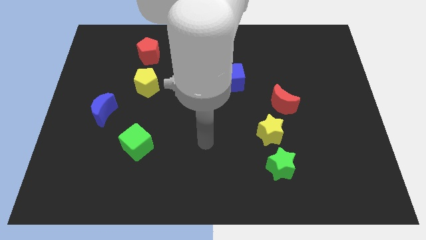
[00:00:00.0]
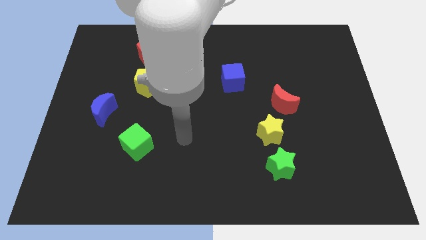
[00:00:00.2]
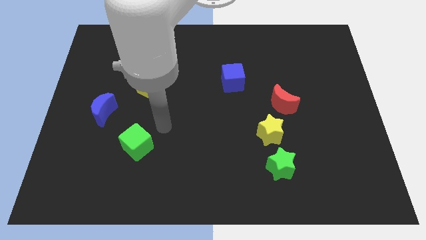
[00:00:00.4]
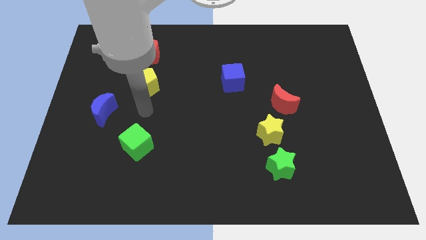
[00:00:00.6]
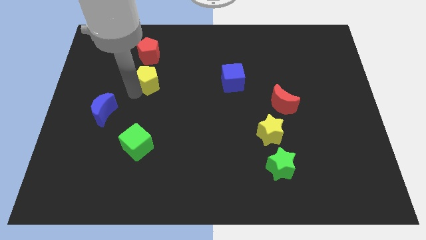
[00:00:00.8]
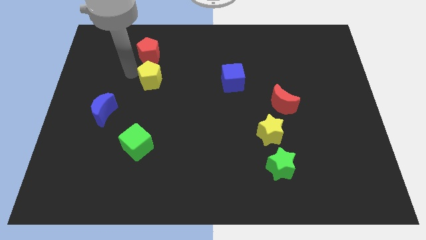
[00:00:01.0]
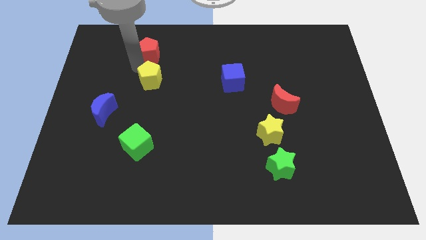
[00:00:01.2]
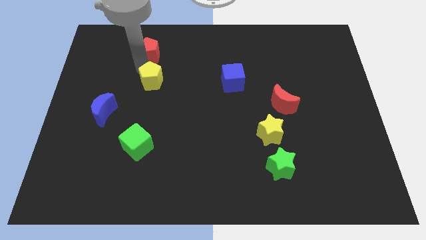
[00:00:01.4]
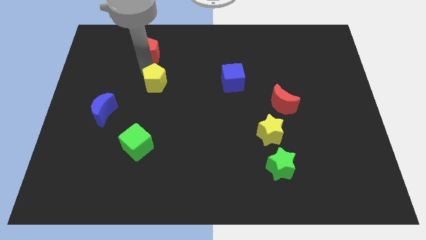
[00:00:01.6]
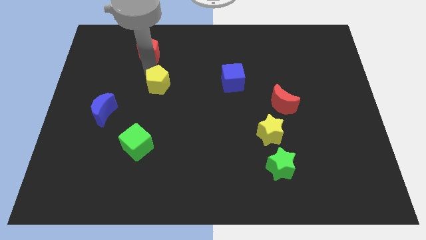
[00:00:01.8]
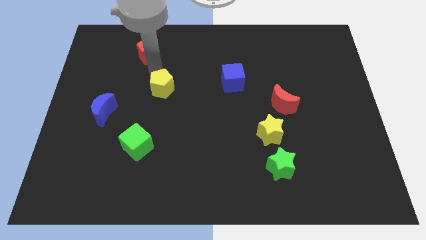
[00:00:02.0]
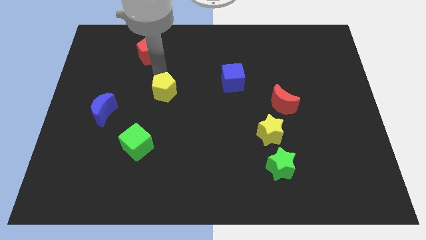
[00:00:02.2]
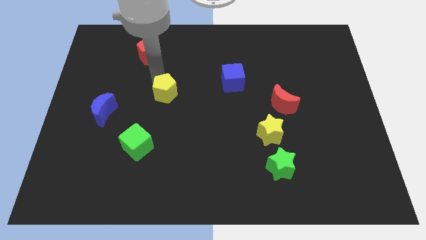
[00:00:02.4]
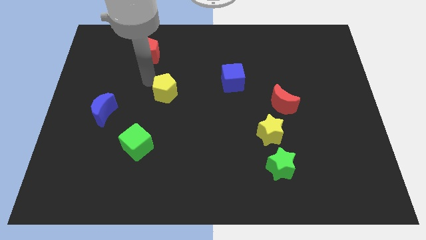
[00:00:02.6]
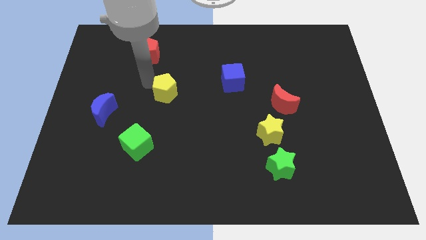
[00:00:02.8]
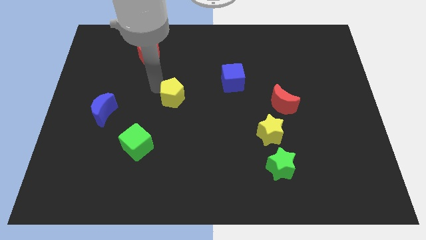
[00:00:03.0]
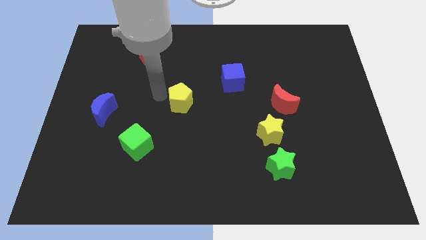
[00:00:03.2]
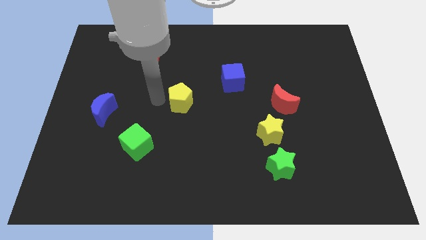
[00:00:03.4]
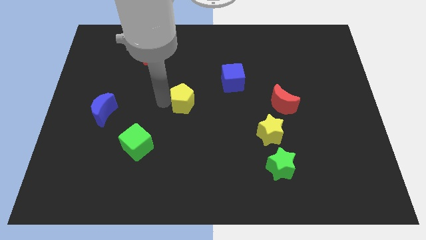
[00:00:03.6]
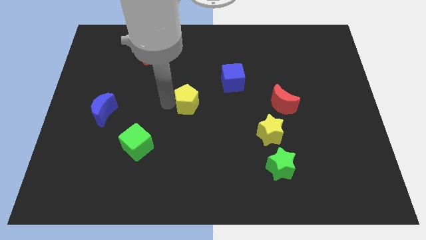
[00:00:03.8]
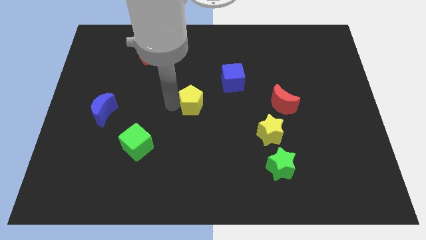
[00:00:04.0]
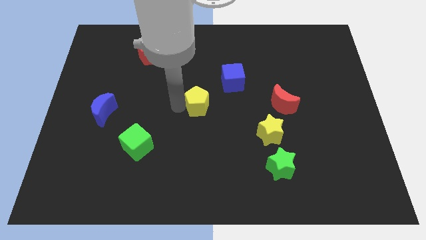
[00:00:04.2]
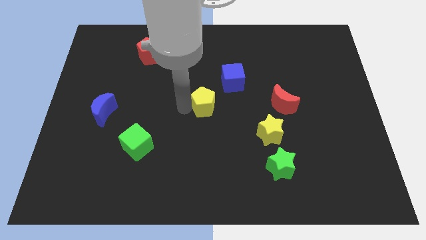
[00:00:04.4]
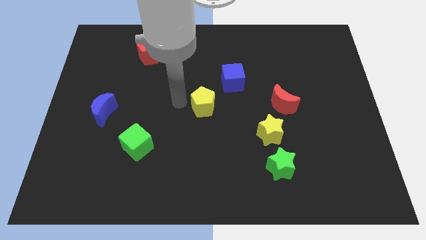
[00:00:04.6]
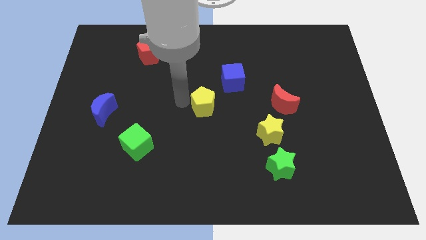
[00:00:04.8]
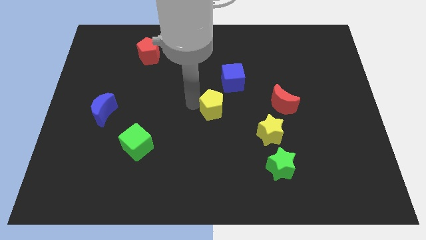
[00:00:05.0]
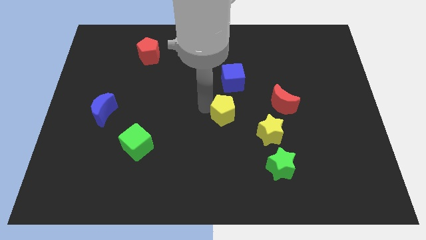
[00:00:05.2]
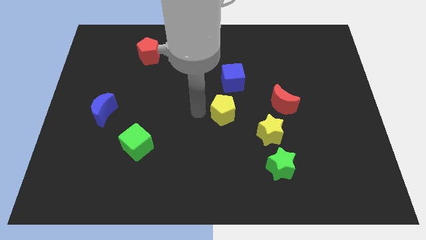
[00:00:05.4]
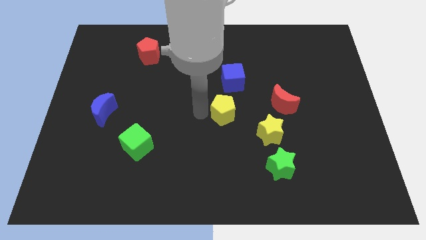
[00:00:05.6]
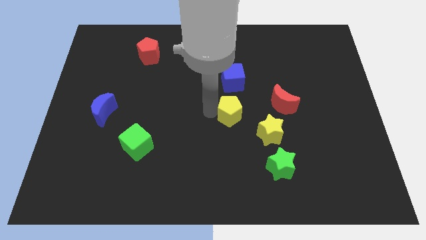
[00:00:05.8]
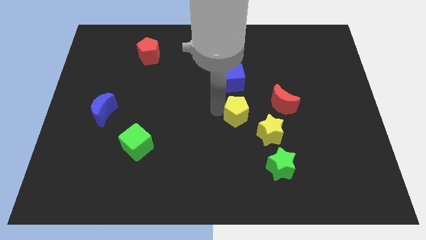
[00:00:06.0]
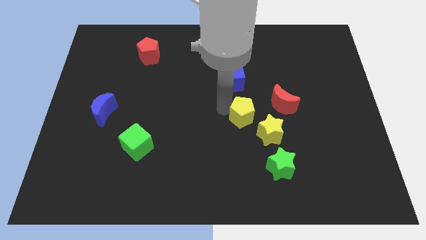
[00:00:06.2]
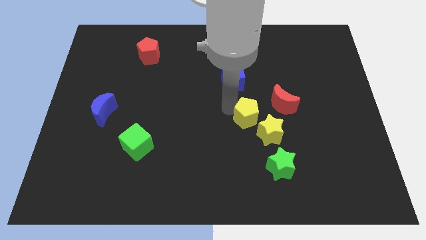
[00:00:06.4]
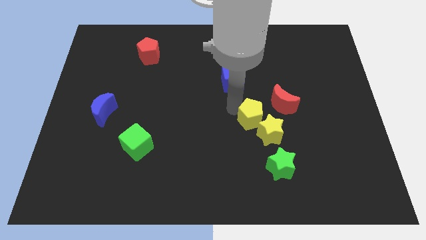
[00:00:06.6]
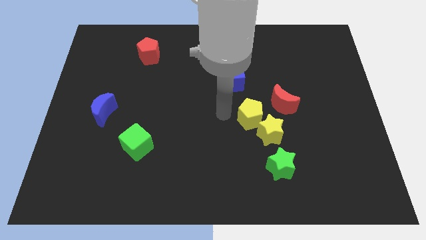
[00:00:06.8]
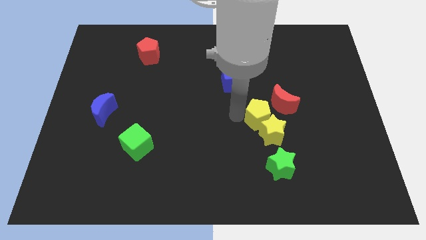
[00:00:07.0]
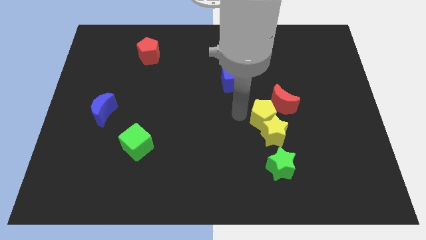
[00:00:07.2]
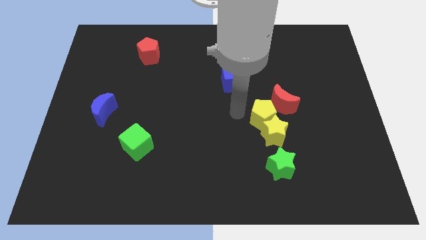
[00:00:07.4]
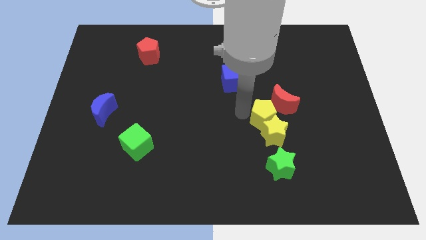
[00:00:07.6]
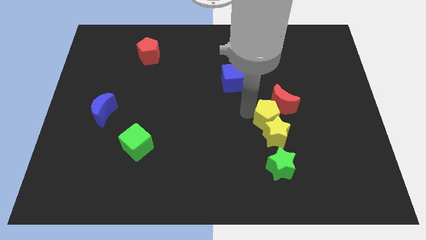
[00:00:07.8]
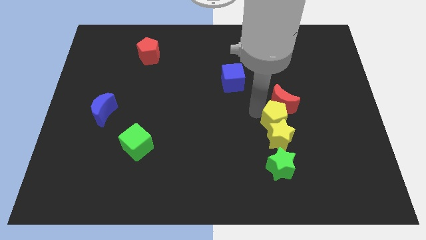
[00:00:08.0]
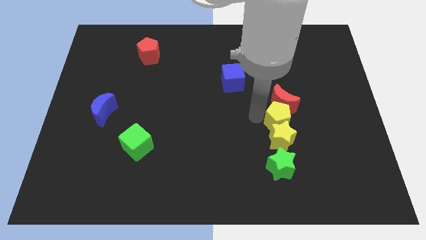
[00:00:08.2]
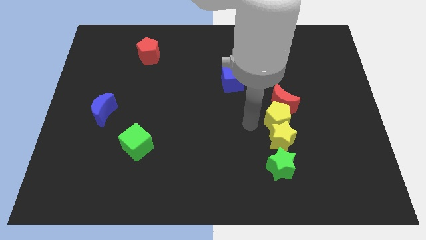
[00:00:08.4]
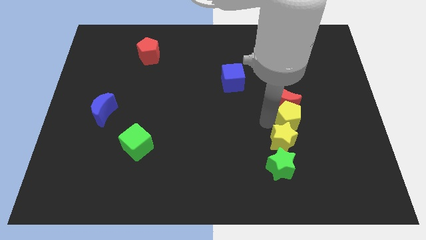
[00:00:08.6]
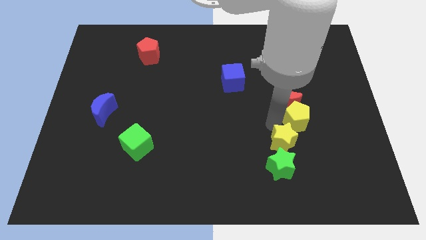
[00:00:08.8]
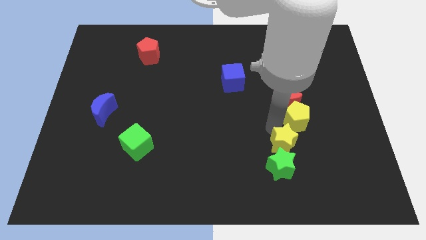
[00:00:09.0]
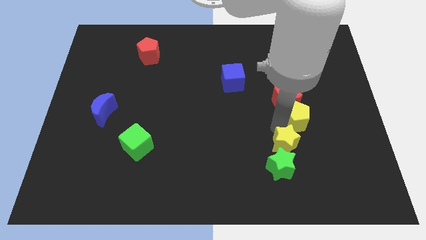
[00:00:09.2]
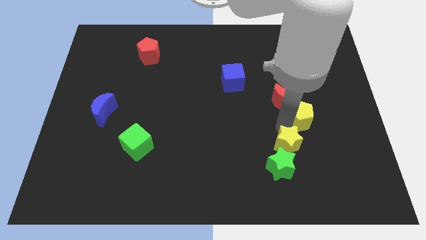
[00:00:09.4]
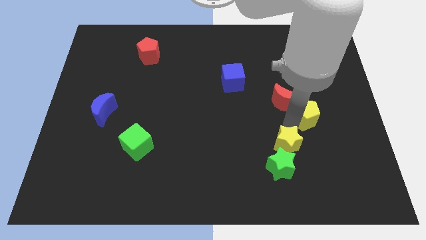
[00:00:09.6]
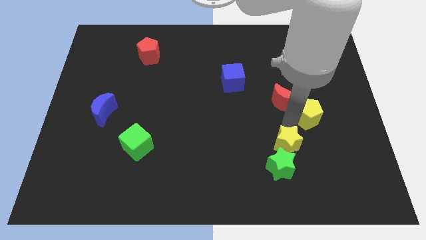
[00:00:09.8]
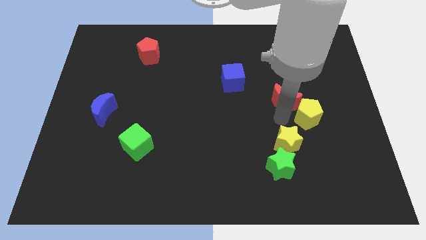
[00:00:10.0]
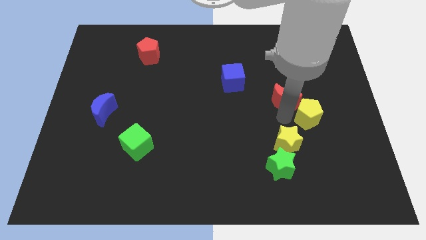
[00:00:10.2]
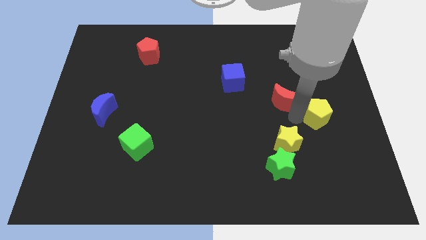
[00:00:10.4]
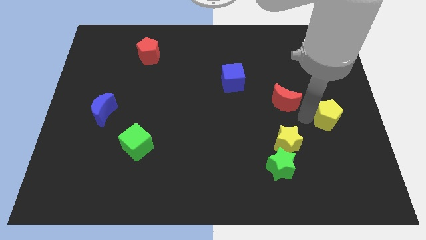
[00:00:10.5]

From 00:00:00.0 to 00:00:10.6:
move the yellow pentagon to the right side

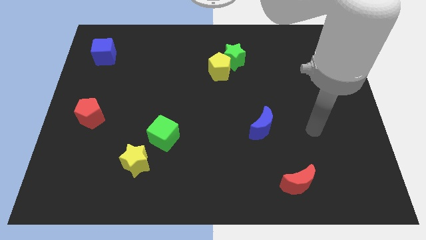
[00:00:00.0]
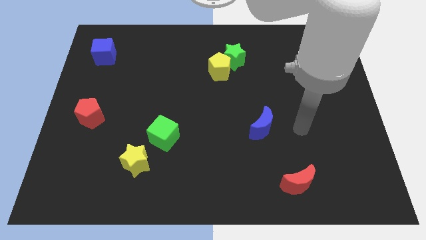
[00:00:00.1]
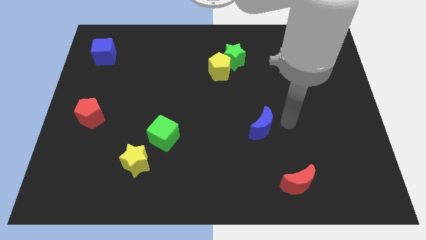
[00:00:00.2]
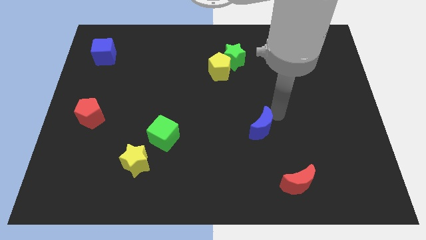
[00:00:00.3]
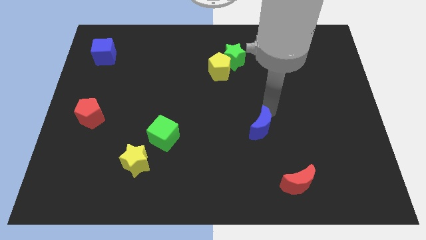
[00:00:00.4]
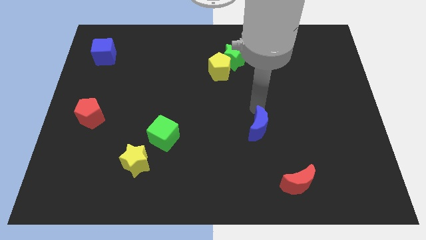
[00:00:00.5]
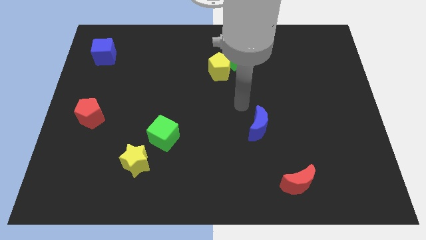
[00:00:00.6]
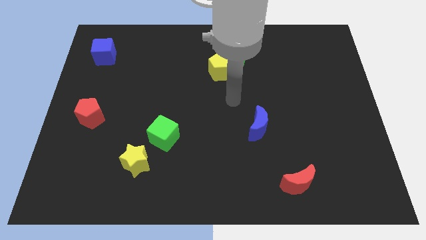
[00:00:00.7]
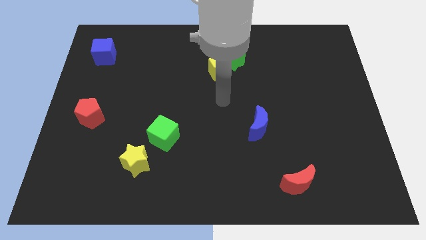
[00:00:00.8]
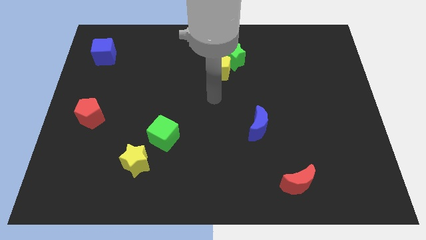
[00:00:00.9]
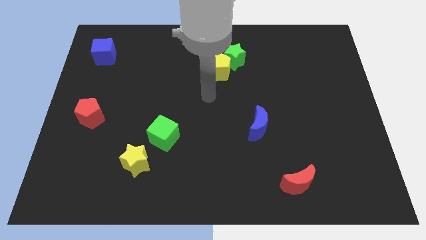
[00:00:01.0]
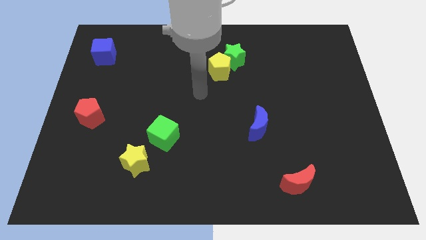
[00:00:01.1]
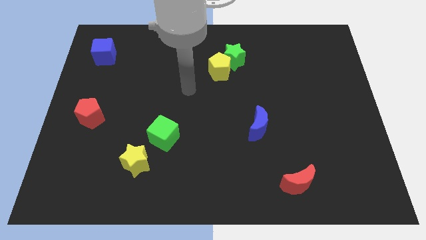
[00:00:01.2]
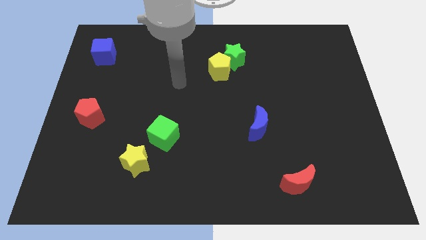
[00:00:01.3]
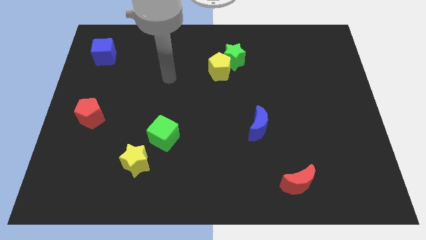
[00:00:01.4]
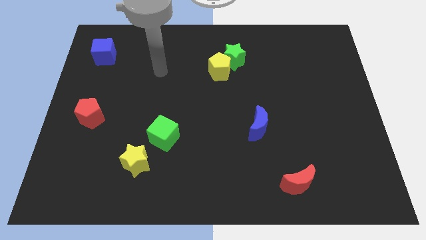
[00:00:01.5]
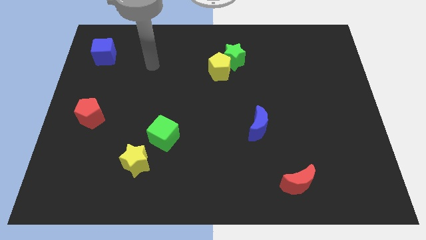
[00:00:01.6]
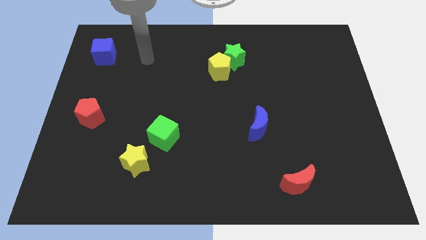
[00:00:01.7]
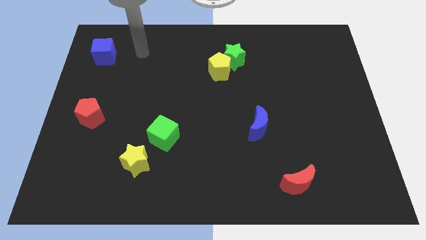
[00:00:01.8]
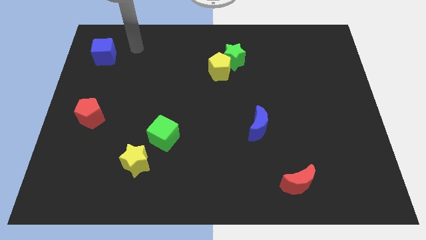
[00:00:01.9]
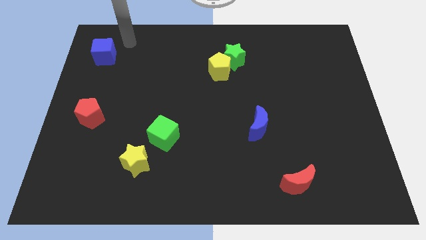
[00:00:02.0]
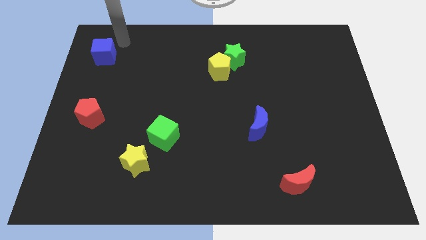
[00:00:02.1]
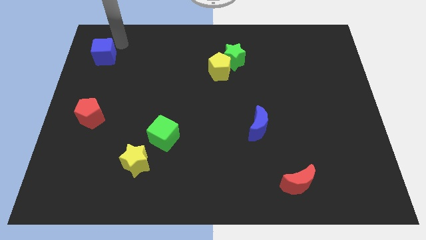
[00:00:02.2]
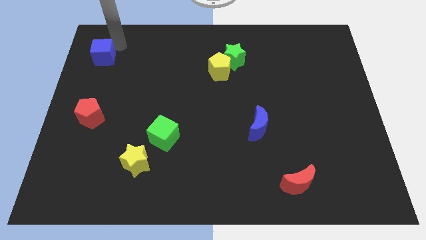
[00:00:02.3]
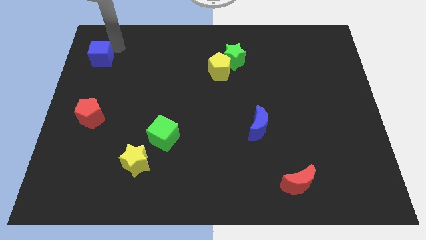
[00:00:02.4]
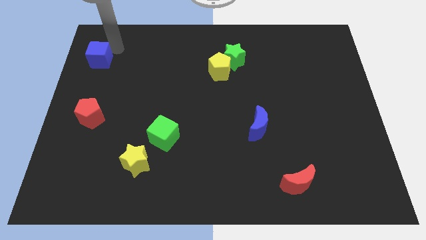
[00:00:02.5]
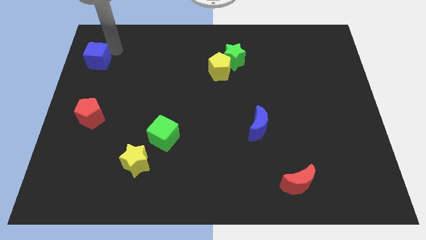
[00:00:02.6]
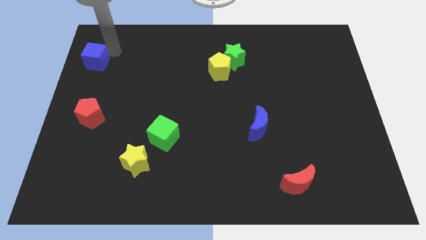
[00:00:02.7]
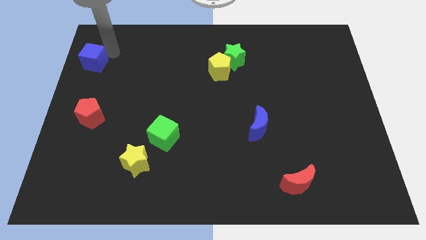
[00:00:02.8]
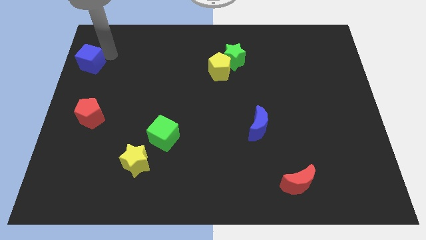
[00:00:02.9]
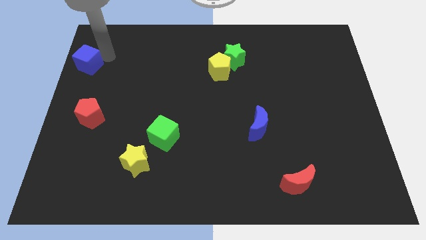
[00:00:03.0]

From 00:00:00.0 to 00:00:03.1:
slide the blue cube to the left side of the board
